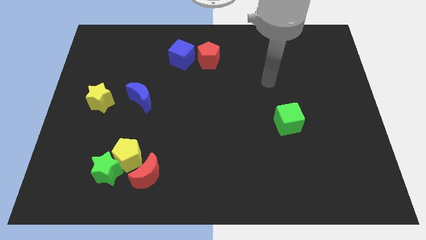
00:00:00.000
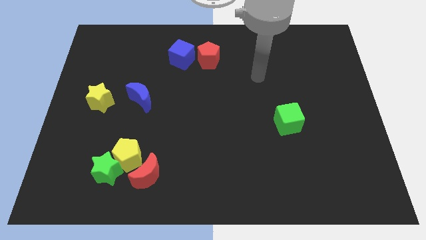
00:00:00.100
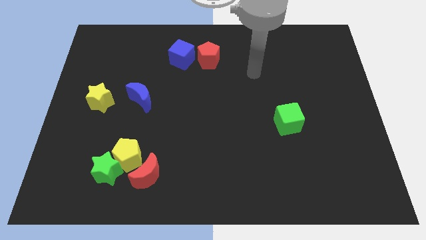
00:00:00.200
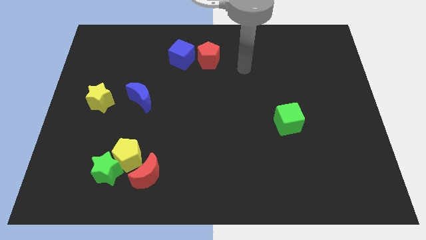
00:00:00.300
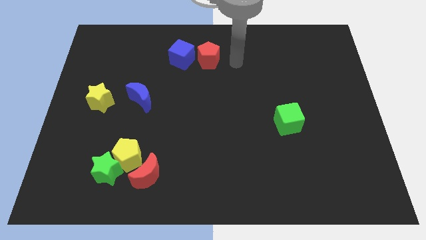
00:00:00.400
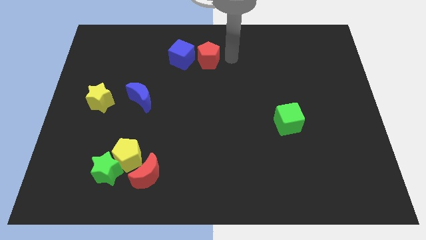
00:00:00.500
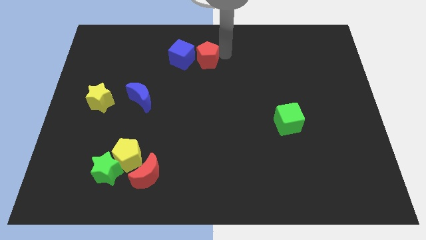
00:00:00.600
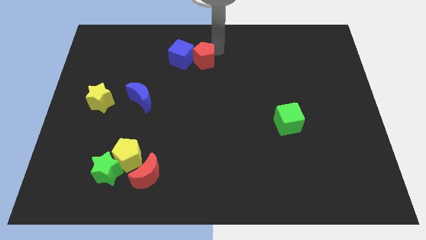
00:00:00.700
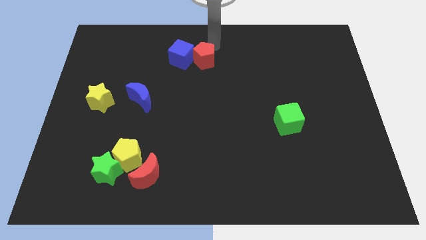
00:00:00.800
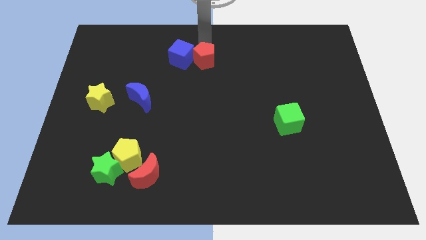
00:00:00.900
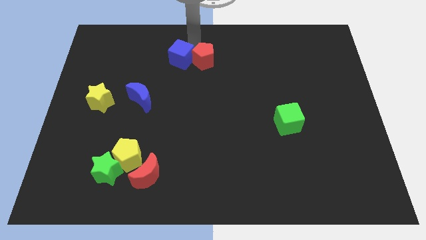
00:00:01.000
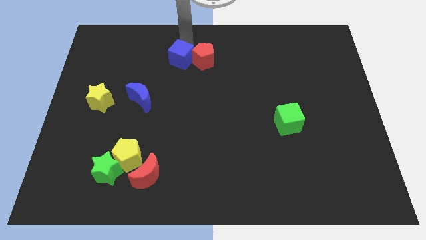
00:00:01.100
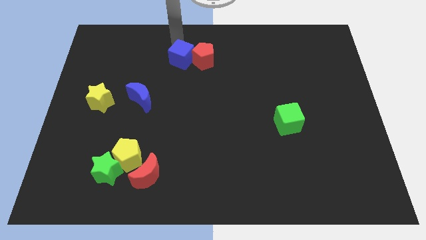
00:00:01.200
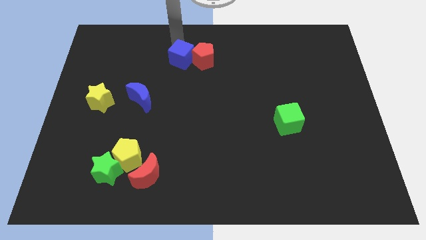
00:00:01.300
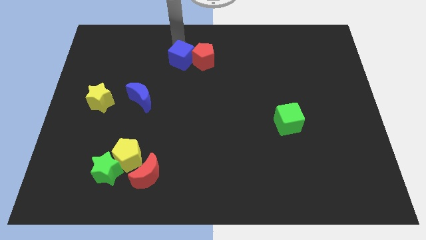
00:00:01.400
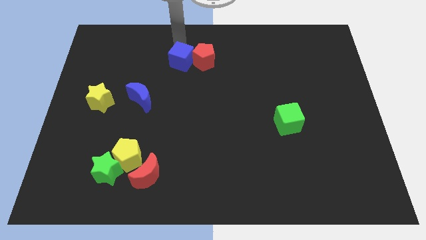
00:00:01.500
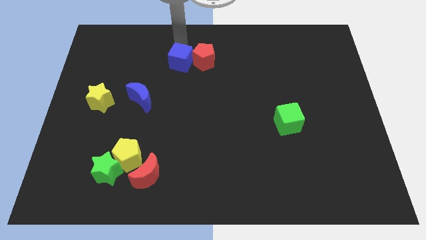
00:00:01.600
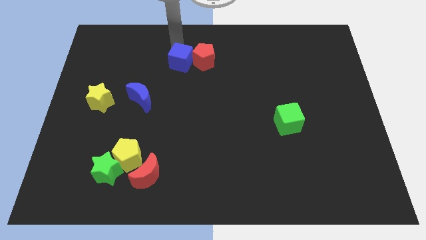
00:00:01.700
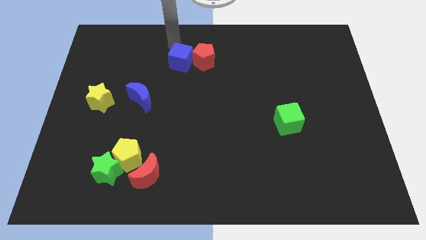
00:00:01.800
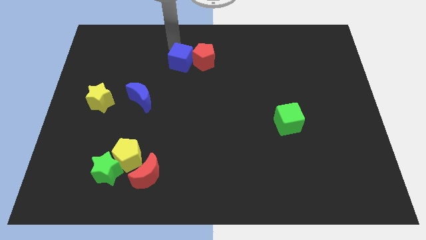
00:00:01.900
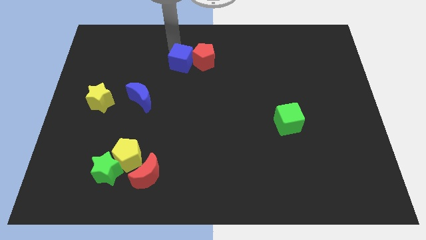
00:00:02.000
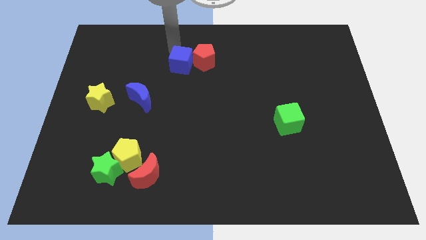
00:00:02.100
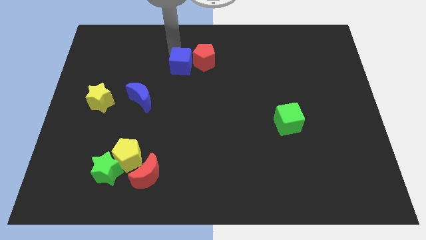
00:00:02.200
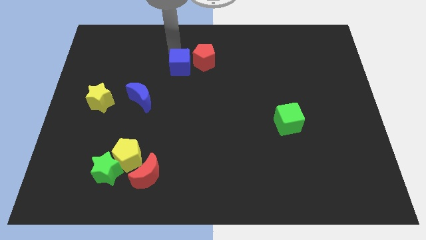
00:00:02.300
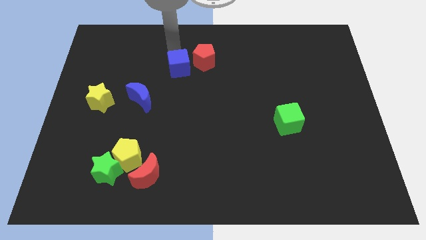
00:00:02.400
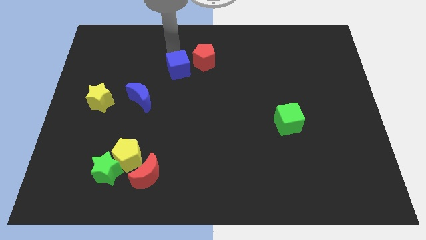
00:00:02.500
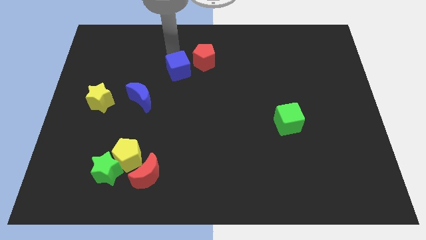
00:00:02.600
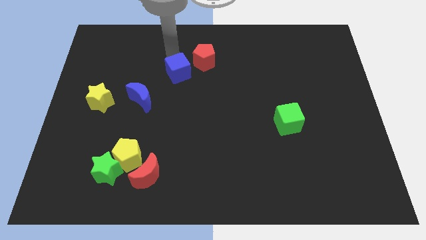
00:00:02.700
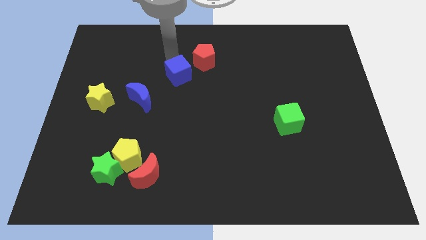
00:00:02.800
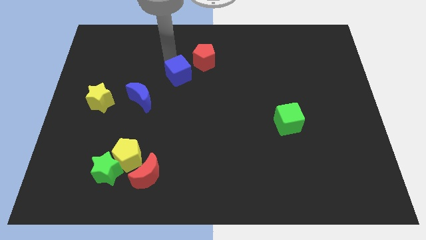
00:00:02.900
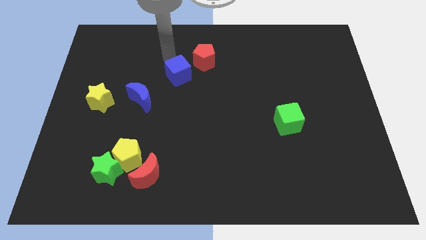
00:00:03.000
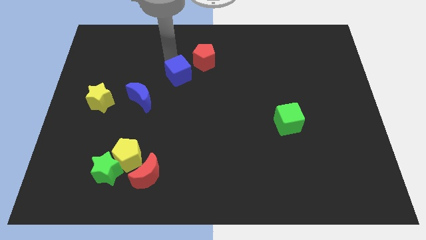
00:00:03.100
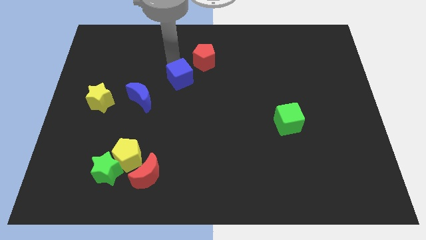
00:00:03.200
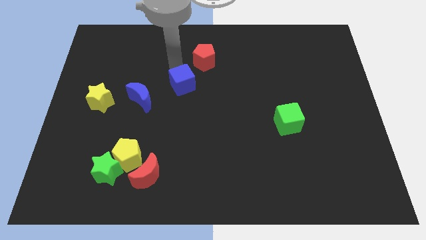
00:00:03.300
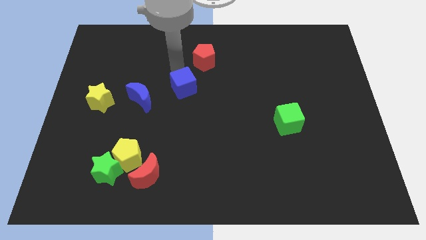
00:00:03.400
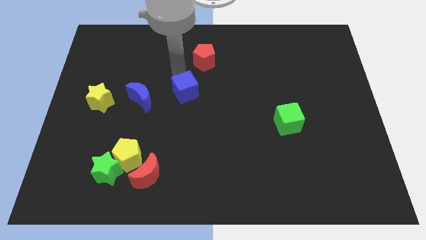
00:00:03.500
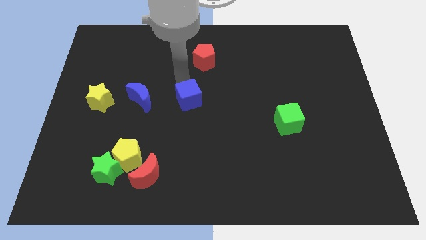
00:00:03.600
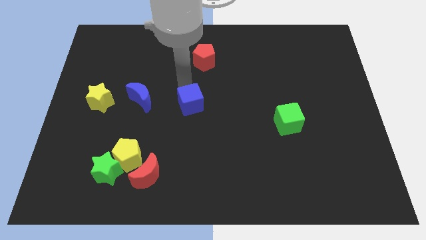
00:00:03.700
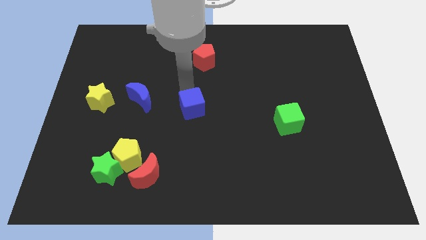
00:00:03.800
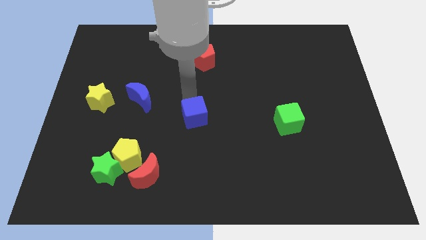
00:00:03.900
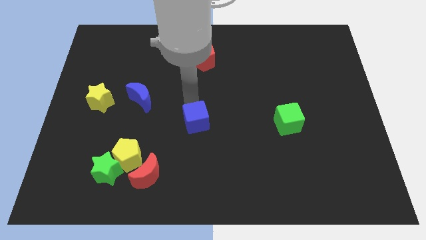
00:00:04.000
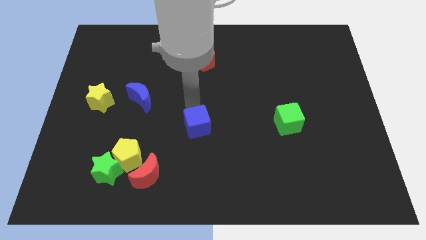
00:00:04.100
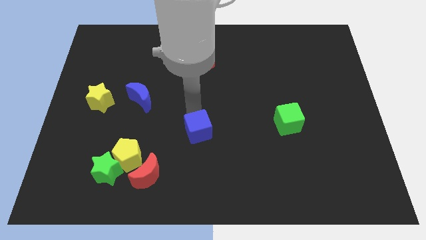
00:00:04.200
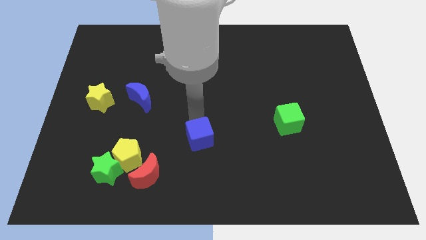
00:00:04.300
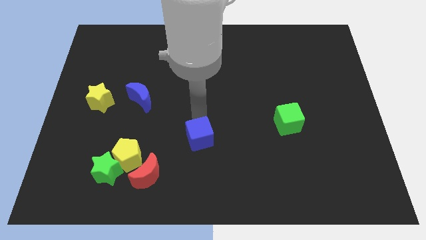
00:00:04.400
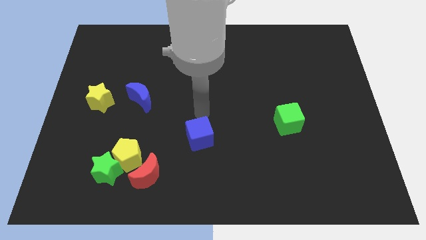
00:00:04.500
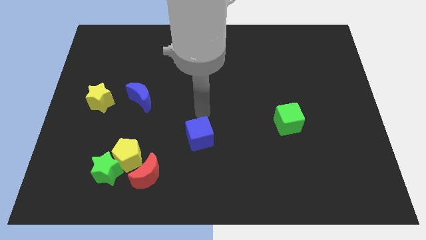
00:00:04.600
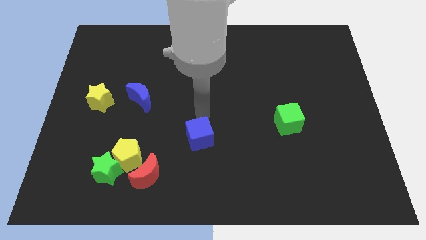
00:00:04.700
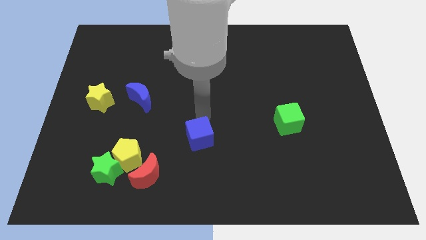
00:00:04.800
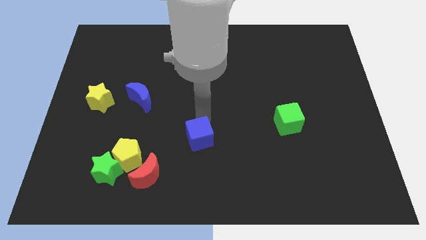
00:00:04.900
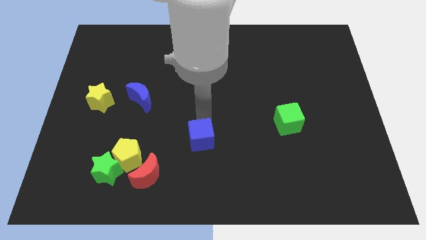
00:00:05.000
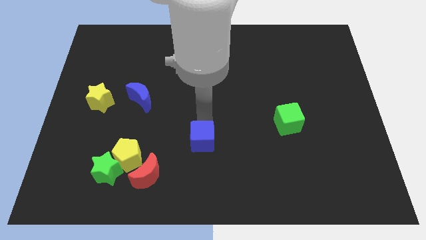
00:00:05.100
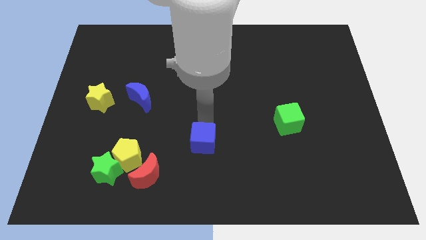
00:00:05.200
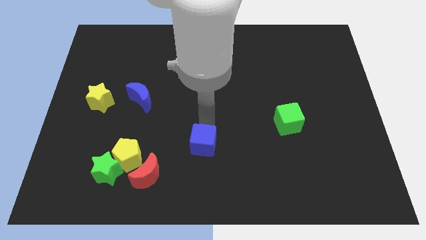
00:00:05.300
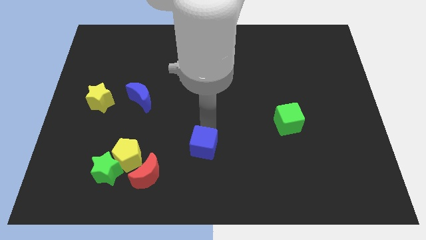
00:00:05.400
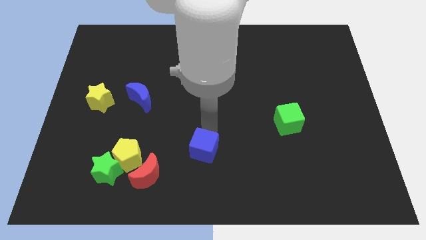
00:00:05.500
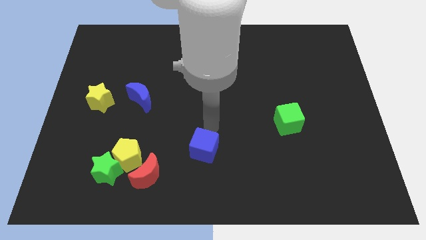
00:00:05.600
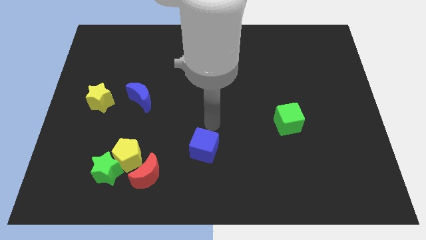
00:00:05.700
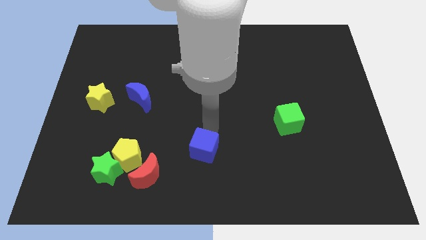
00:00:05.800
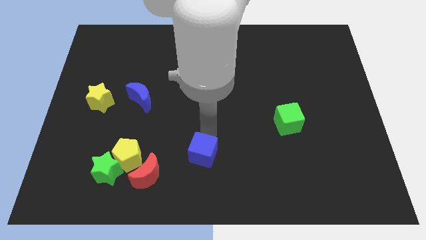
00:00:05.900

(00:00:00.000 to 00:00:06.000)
push the blue cube to the bottom side

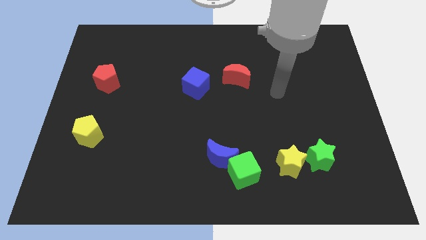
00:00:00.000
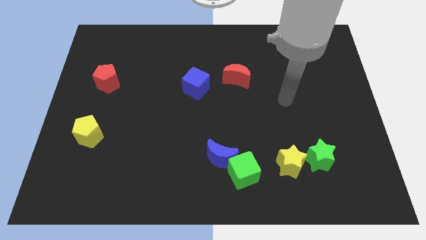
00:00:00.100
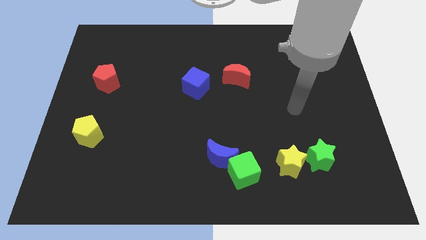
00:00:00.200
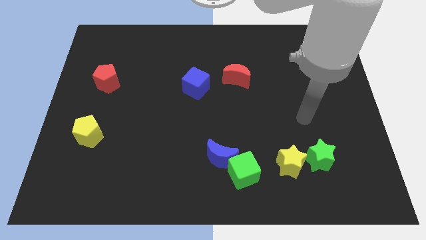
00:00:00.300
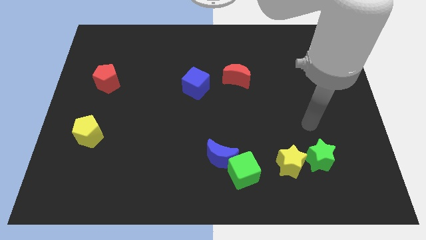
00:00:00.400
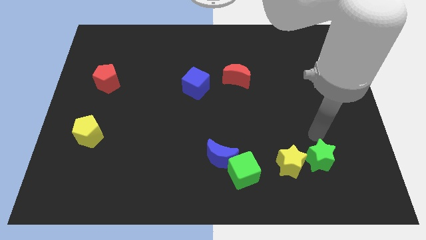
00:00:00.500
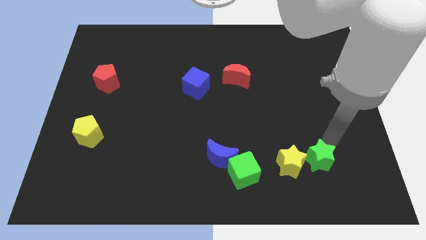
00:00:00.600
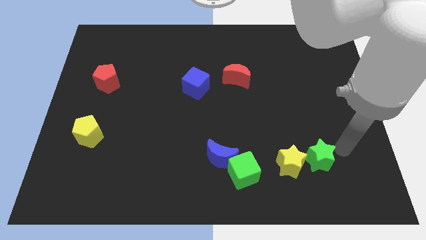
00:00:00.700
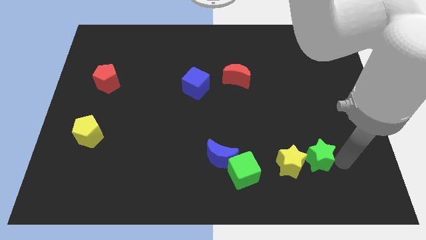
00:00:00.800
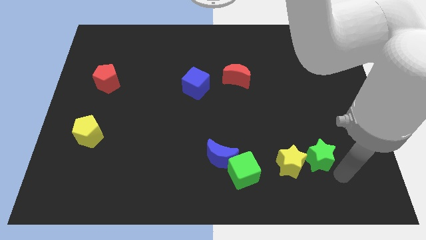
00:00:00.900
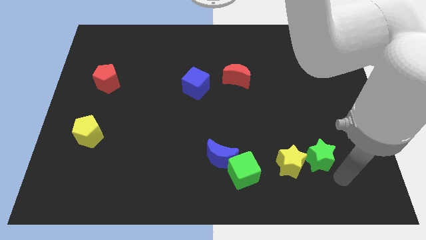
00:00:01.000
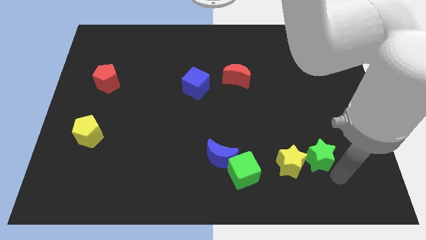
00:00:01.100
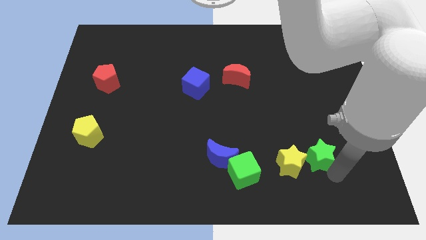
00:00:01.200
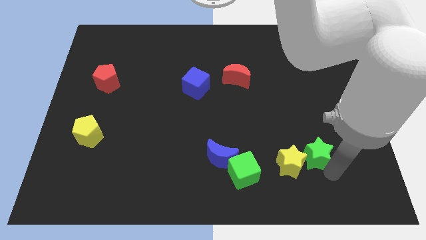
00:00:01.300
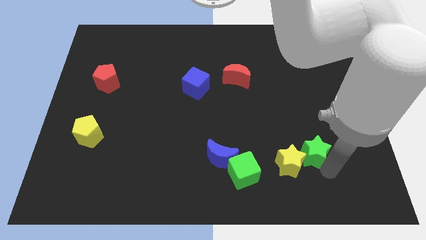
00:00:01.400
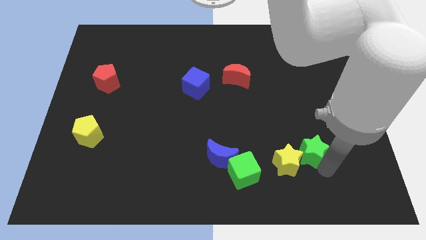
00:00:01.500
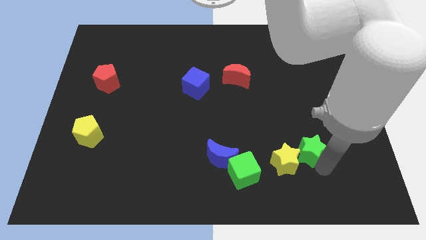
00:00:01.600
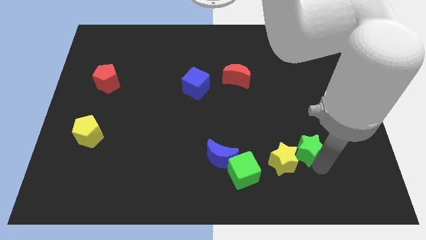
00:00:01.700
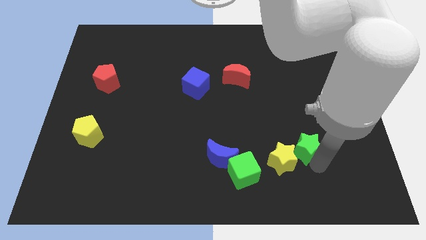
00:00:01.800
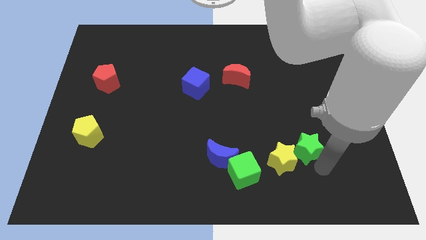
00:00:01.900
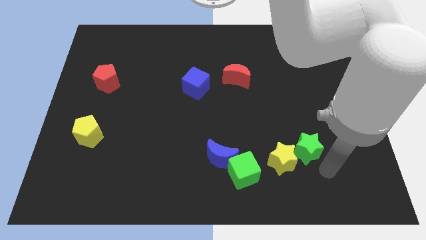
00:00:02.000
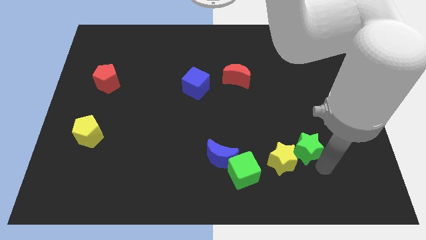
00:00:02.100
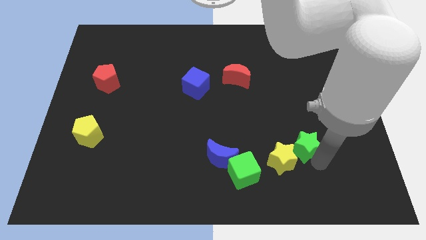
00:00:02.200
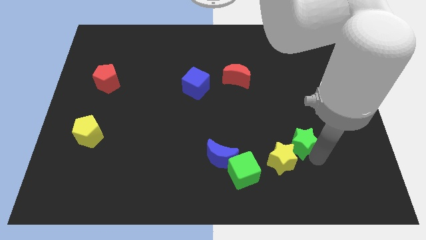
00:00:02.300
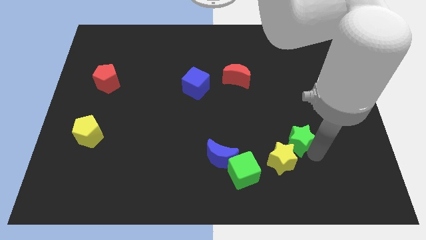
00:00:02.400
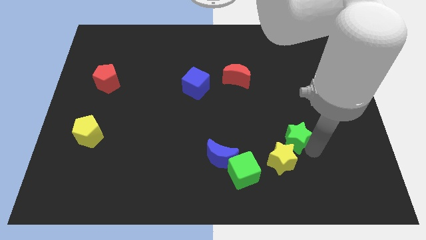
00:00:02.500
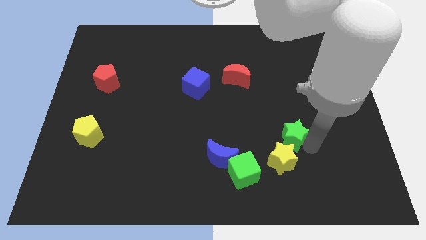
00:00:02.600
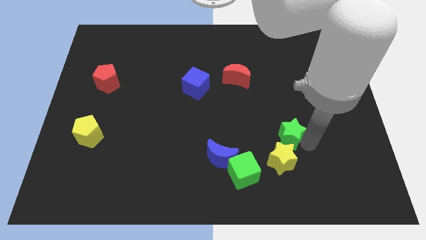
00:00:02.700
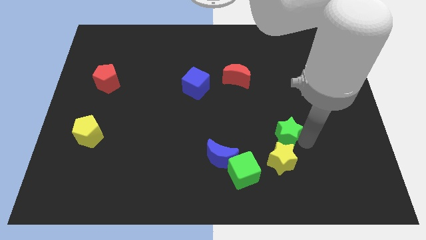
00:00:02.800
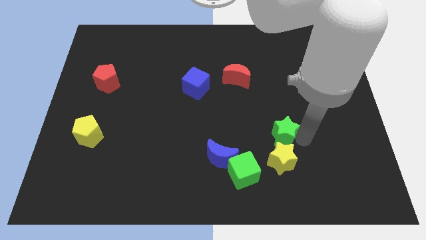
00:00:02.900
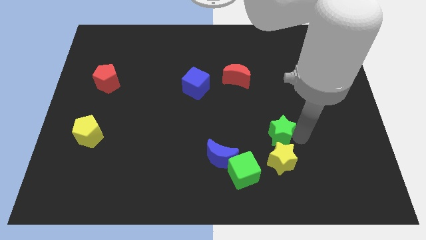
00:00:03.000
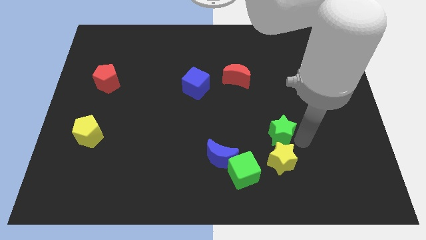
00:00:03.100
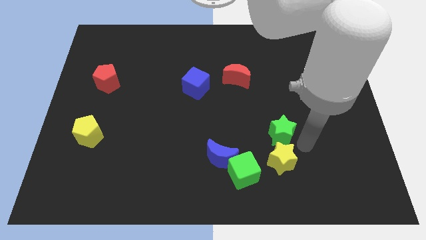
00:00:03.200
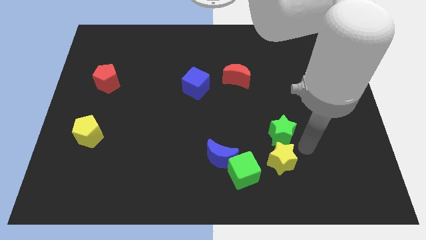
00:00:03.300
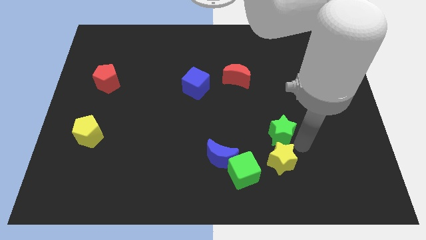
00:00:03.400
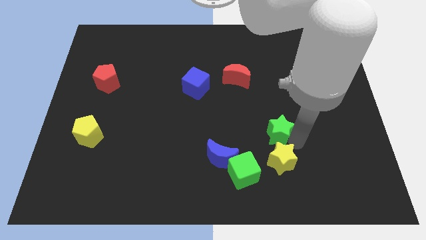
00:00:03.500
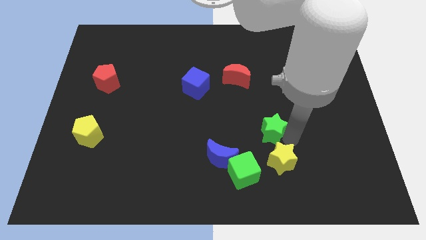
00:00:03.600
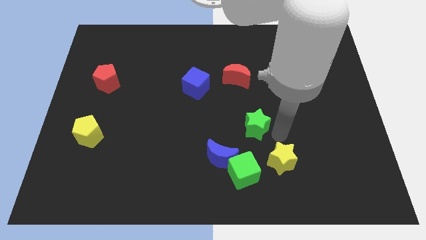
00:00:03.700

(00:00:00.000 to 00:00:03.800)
slide the green star to the middle of the board
